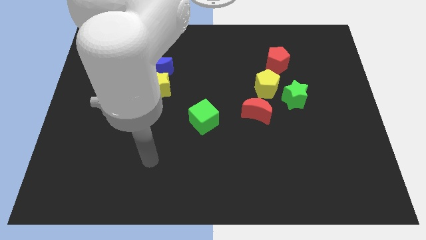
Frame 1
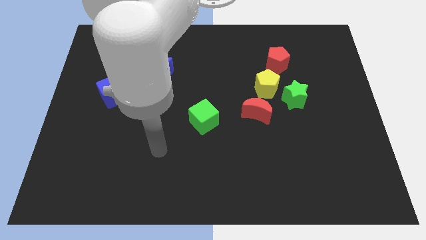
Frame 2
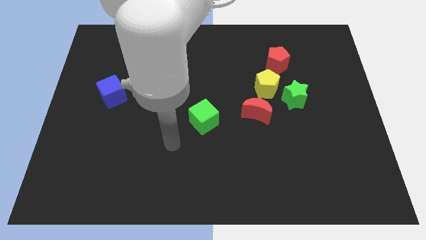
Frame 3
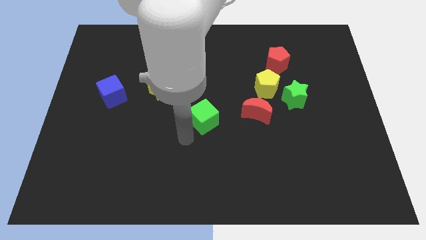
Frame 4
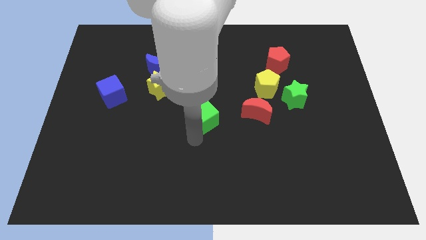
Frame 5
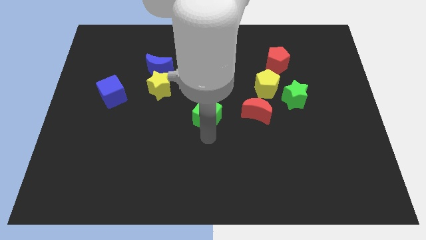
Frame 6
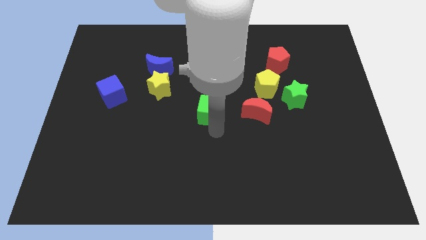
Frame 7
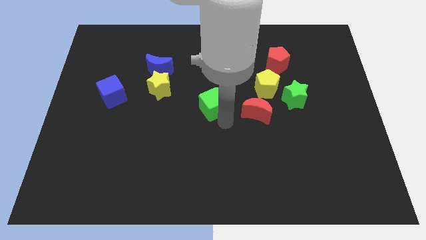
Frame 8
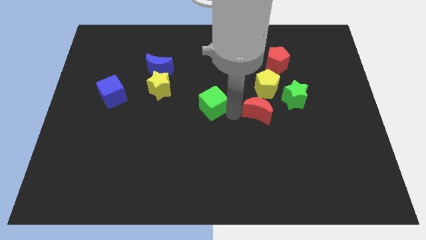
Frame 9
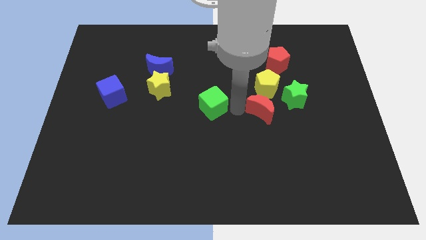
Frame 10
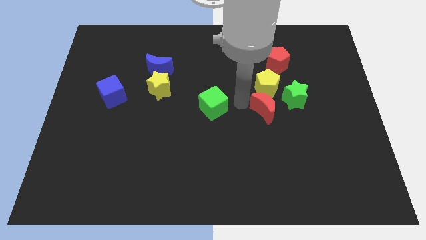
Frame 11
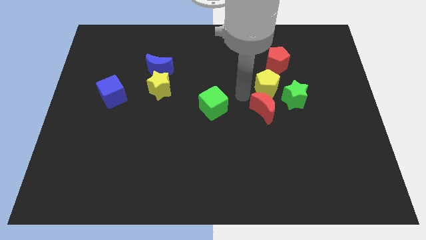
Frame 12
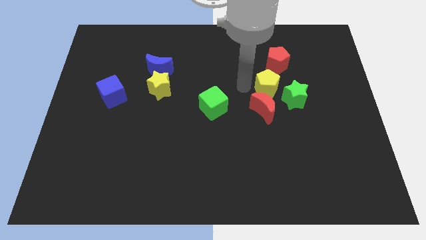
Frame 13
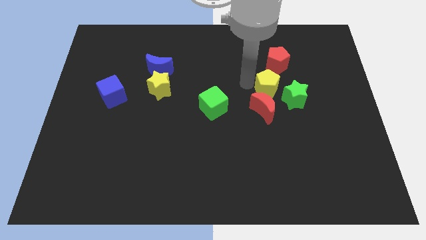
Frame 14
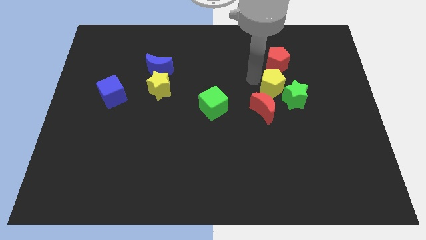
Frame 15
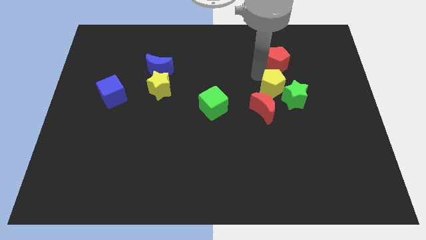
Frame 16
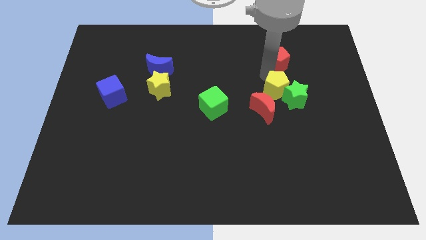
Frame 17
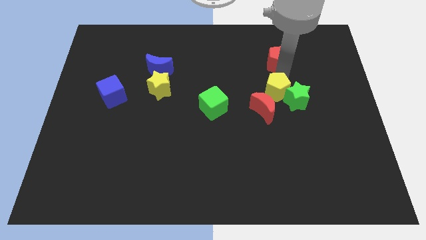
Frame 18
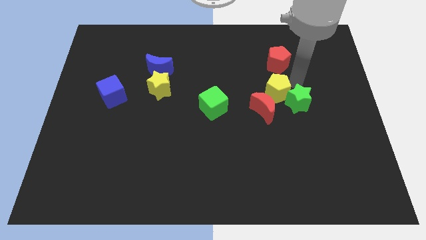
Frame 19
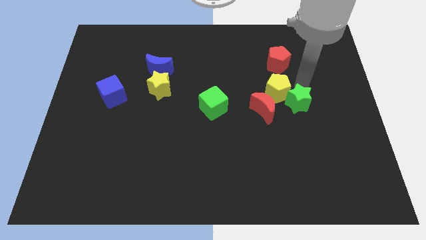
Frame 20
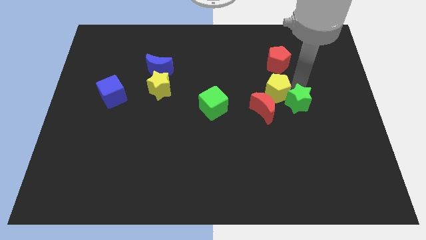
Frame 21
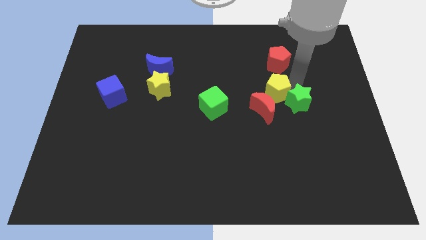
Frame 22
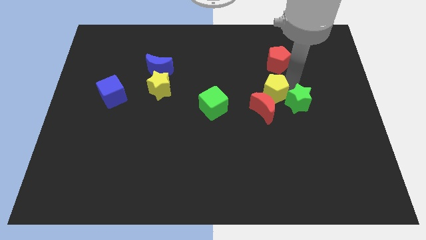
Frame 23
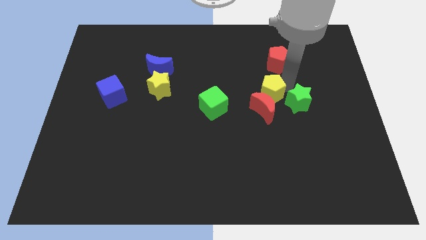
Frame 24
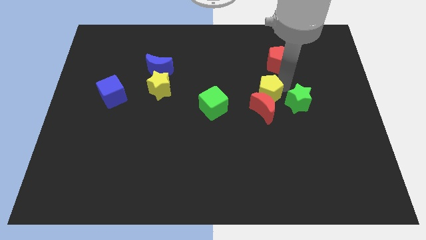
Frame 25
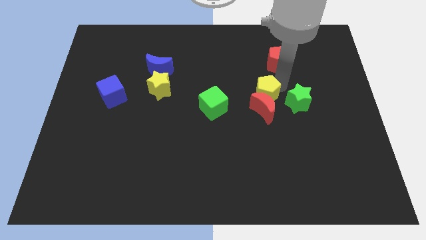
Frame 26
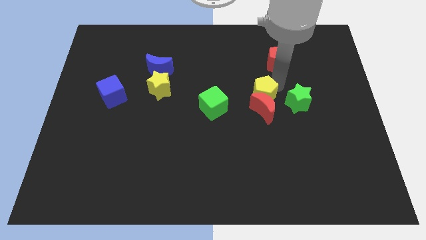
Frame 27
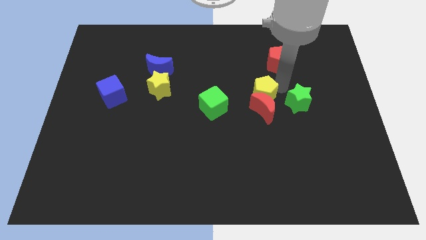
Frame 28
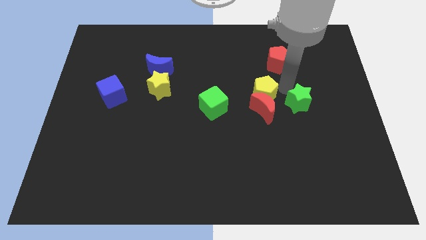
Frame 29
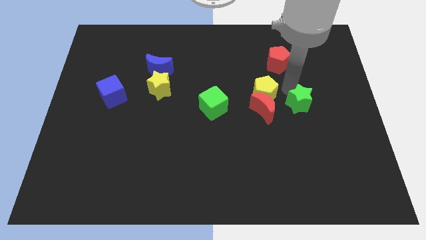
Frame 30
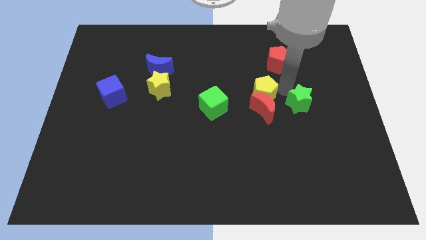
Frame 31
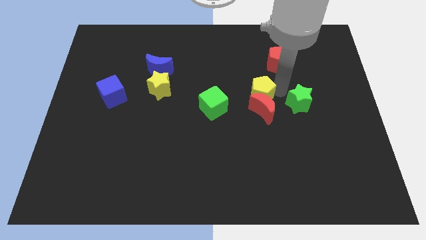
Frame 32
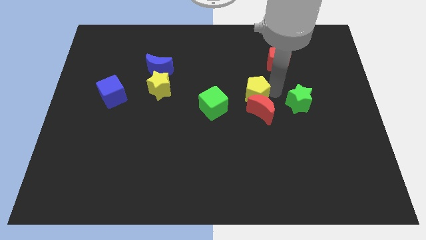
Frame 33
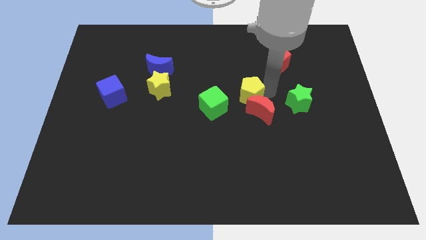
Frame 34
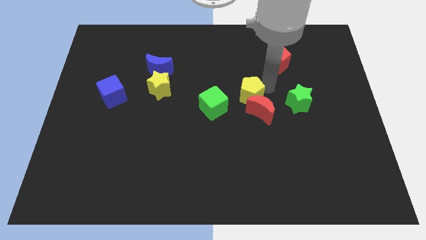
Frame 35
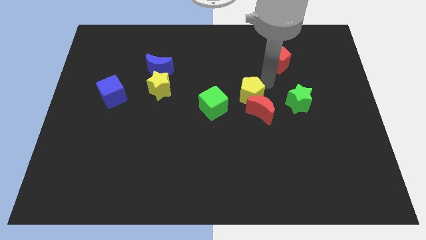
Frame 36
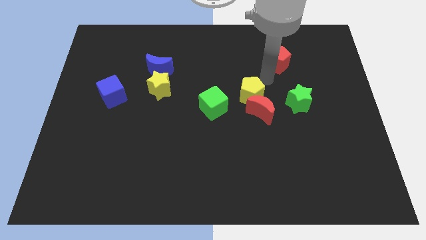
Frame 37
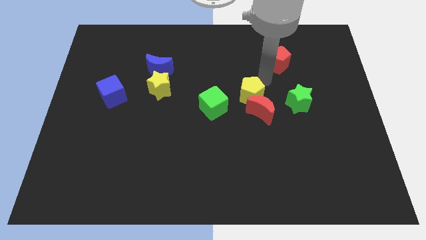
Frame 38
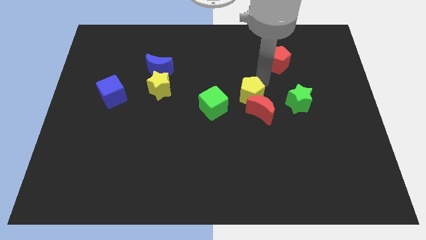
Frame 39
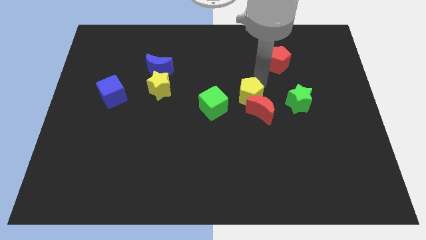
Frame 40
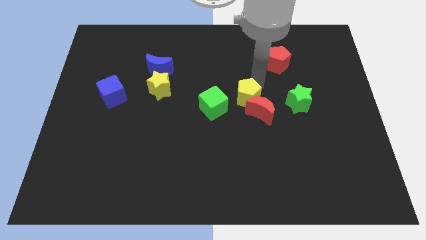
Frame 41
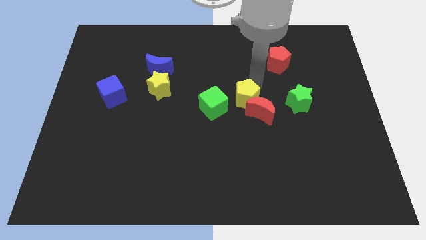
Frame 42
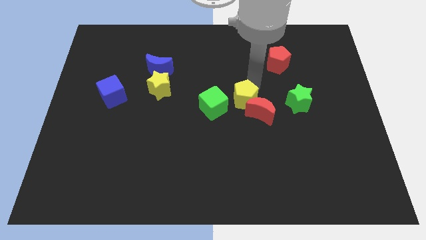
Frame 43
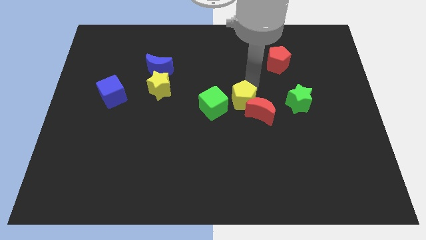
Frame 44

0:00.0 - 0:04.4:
push the yellow pentagon downwards and then to the left a bit

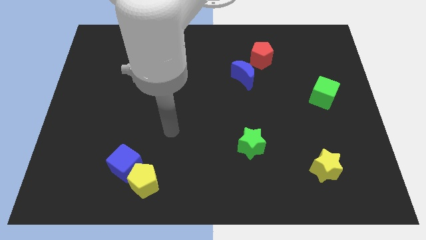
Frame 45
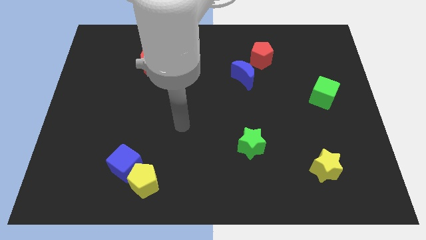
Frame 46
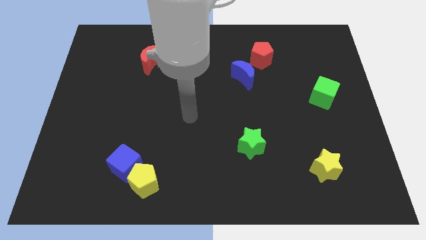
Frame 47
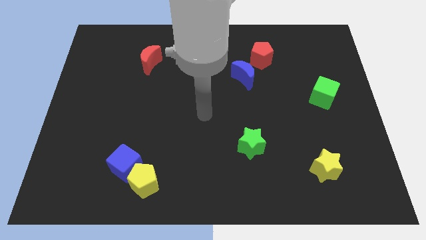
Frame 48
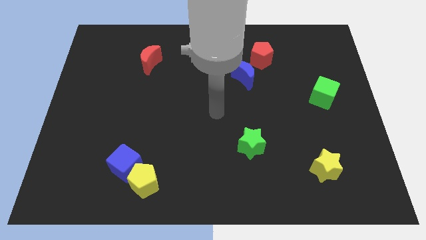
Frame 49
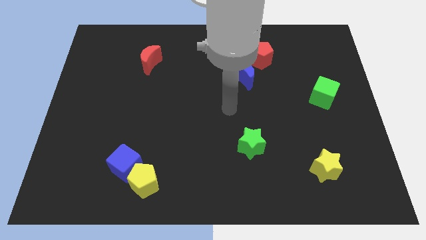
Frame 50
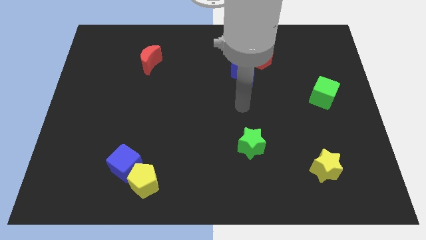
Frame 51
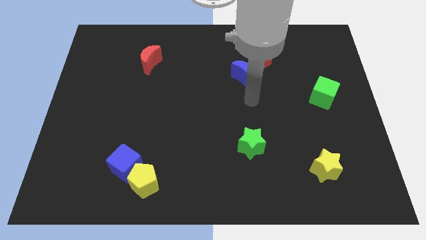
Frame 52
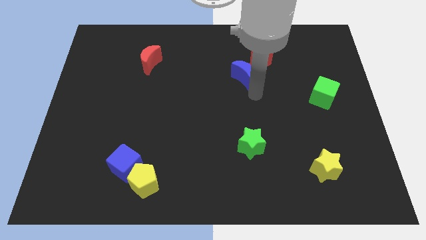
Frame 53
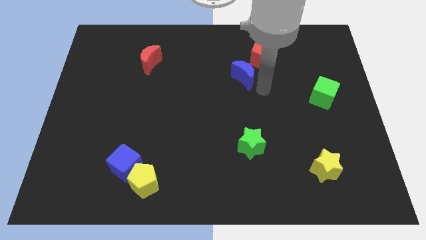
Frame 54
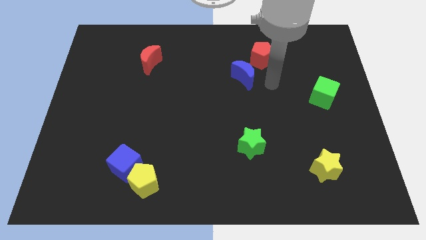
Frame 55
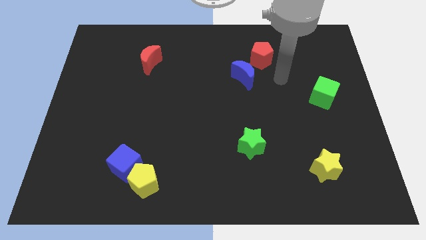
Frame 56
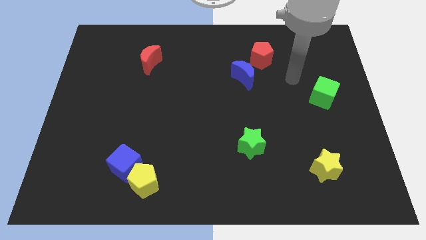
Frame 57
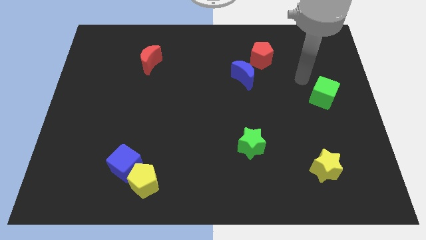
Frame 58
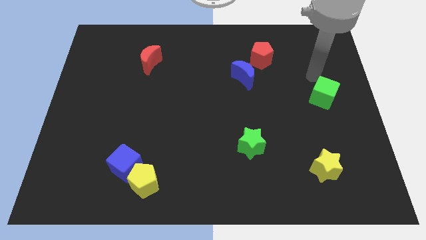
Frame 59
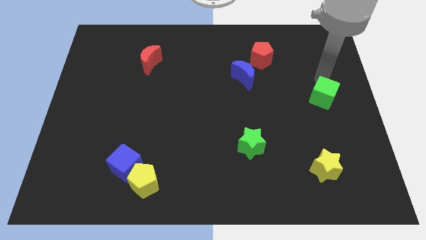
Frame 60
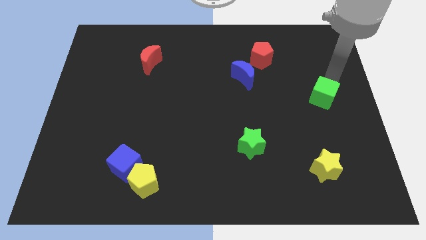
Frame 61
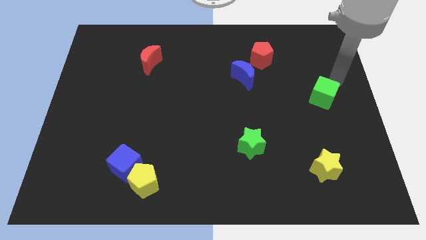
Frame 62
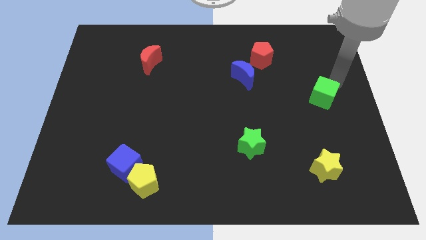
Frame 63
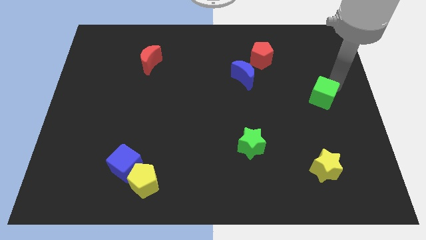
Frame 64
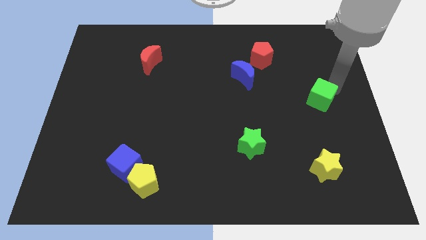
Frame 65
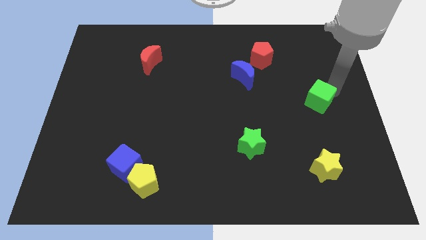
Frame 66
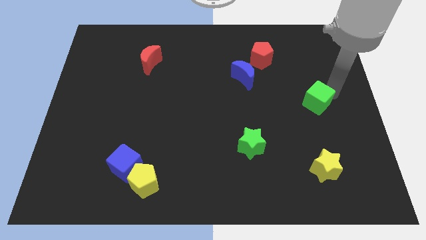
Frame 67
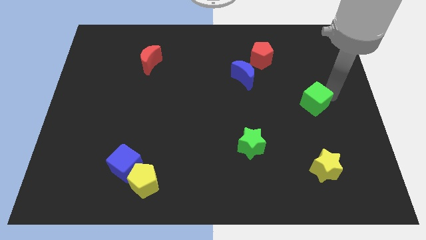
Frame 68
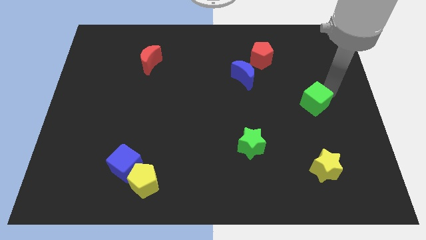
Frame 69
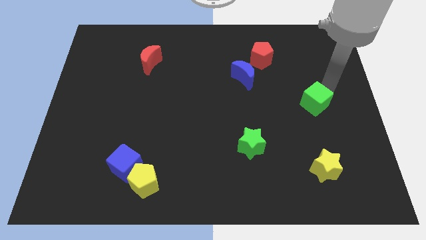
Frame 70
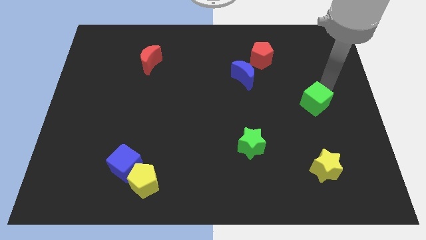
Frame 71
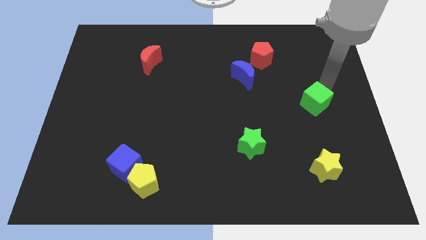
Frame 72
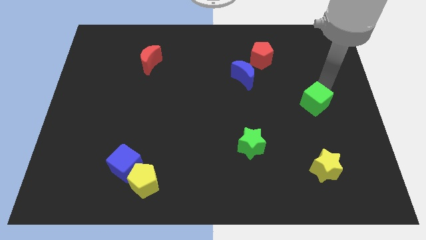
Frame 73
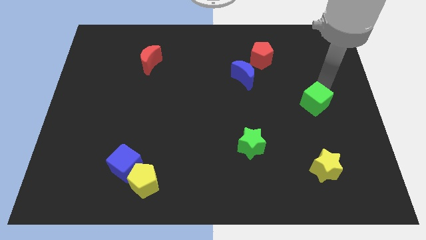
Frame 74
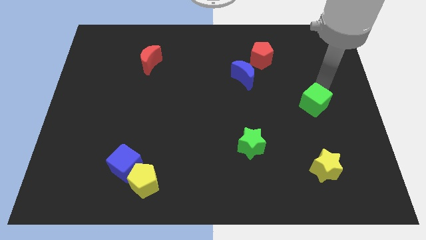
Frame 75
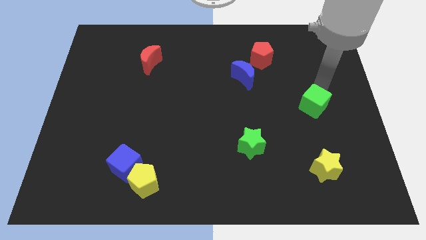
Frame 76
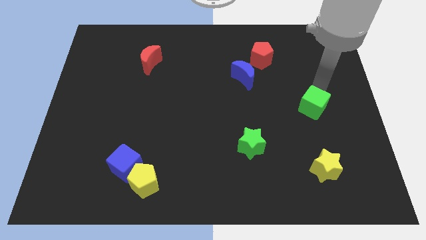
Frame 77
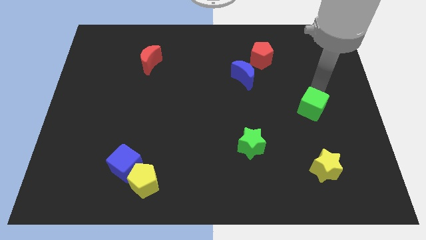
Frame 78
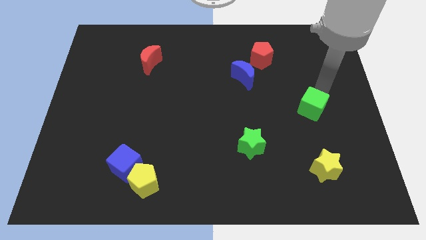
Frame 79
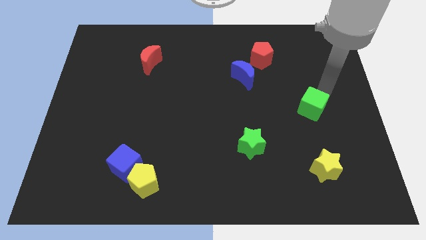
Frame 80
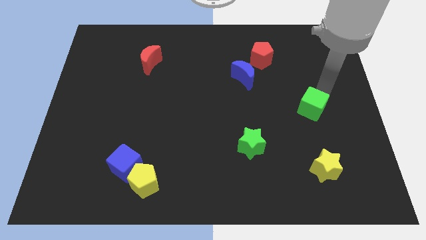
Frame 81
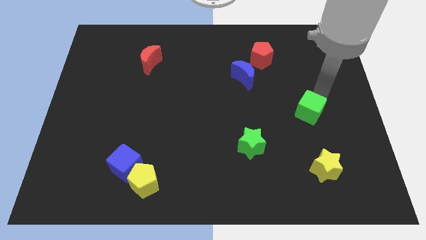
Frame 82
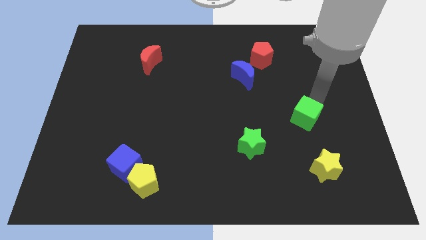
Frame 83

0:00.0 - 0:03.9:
slightly move the green cube down and then to the left
